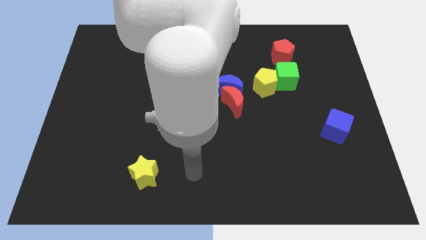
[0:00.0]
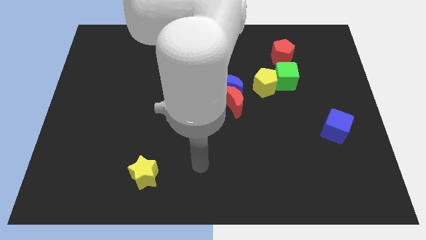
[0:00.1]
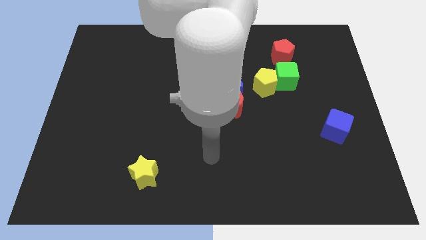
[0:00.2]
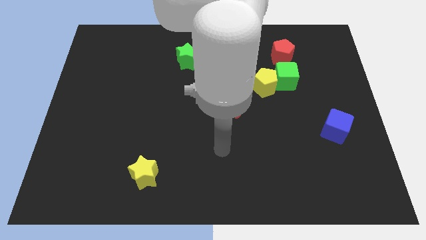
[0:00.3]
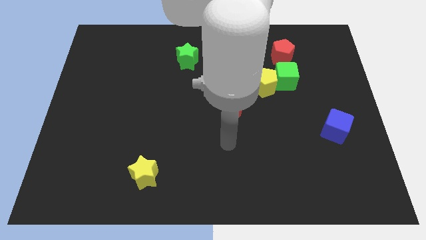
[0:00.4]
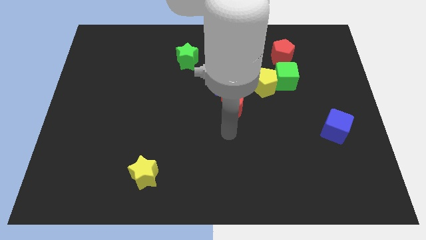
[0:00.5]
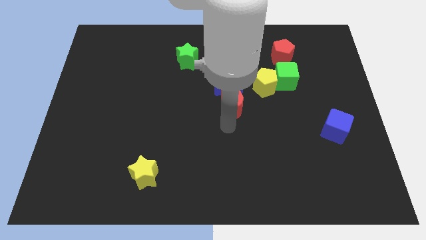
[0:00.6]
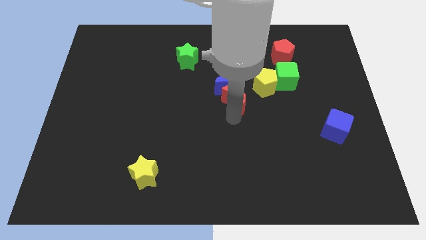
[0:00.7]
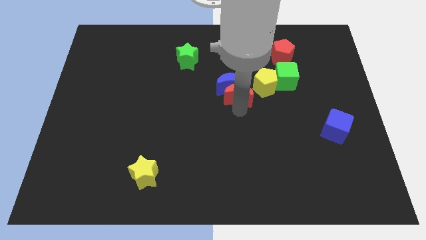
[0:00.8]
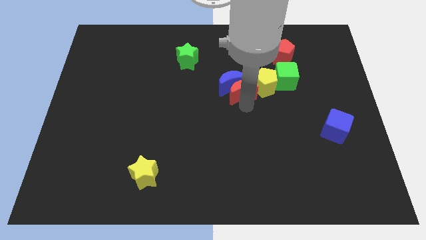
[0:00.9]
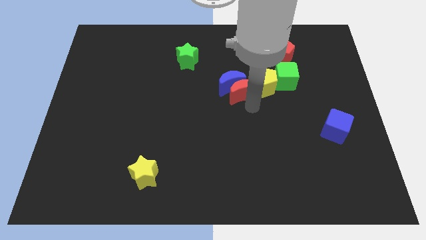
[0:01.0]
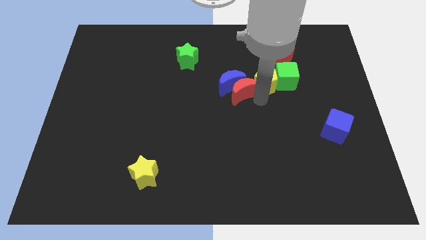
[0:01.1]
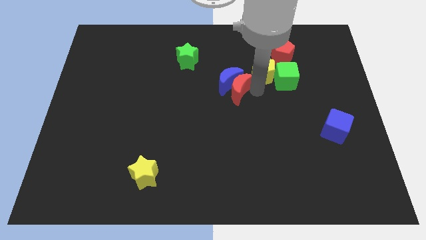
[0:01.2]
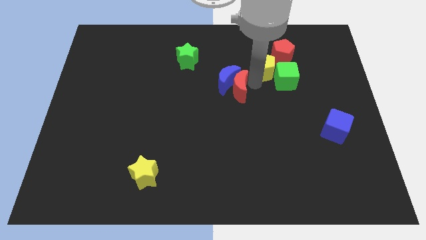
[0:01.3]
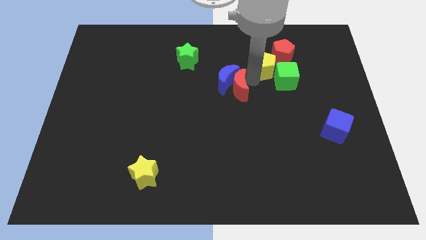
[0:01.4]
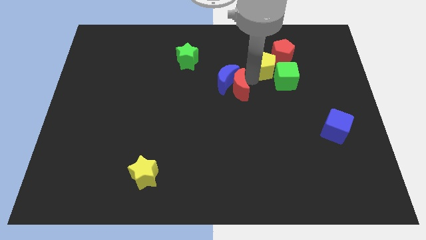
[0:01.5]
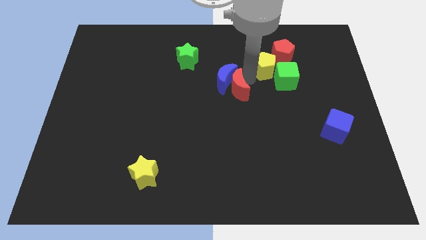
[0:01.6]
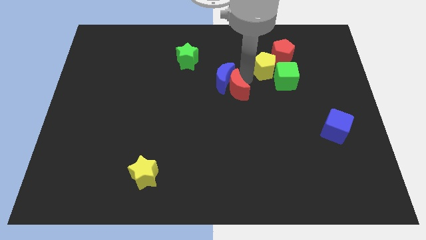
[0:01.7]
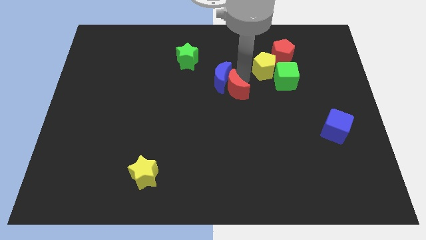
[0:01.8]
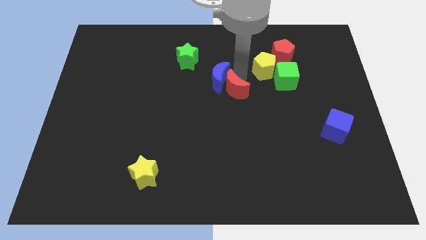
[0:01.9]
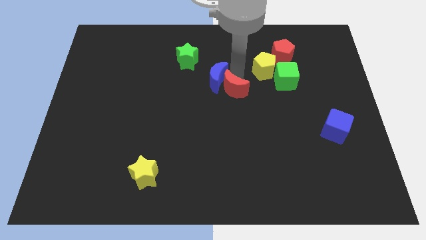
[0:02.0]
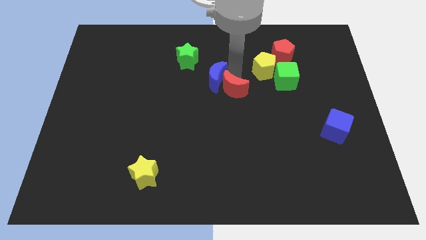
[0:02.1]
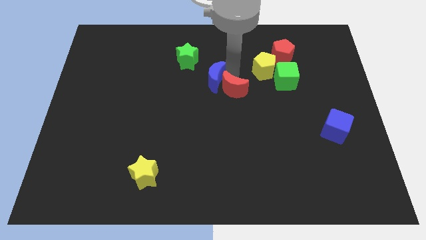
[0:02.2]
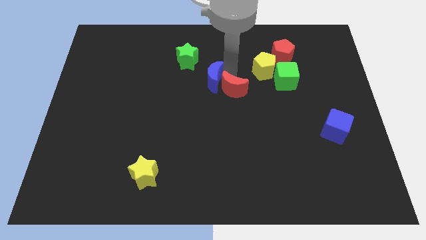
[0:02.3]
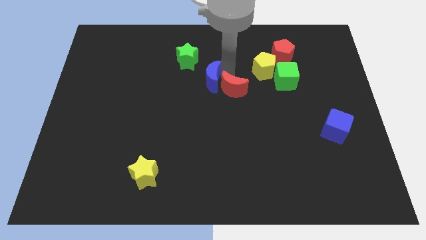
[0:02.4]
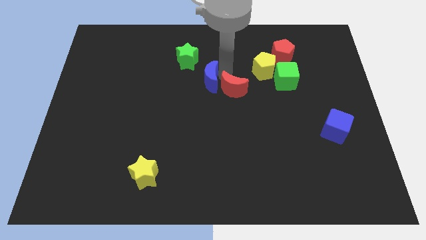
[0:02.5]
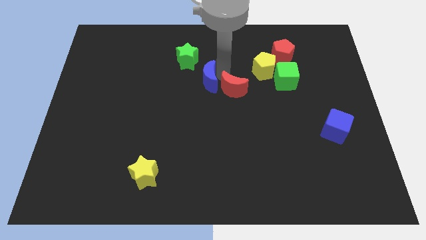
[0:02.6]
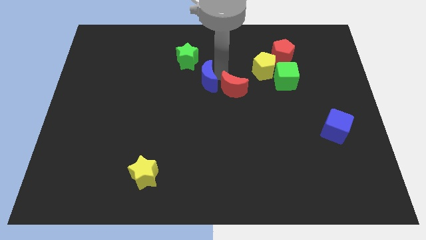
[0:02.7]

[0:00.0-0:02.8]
pull the blue moon apart from the red moon and yellow pentagon

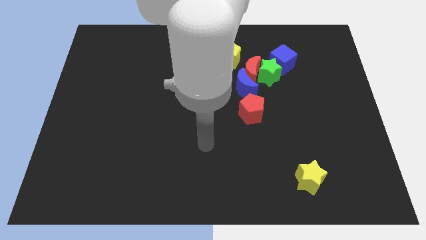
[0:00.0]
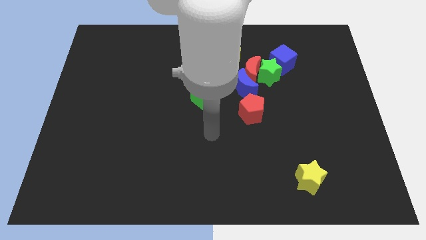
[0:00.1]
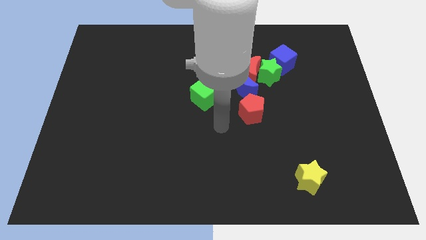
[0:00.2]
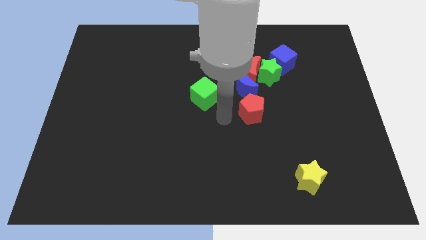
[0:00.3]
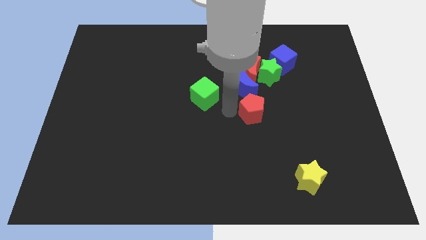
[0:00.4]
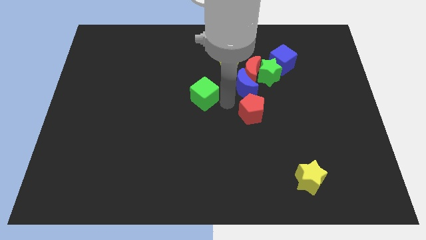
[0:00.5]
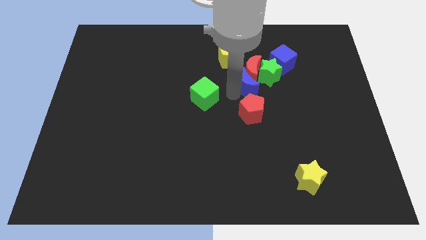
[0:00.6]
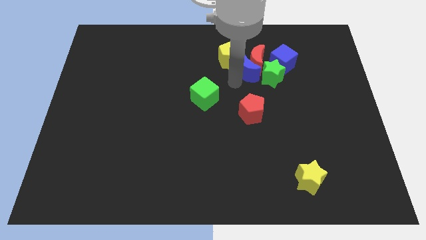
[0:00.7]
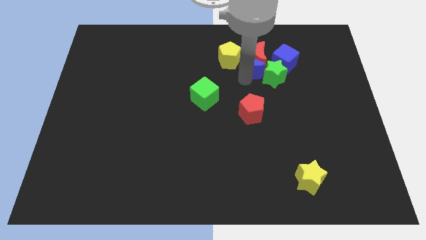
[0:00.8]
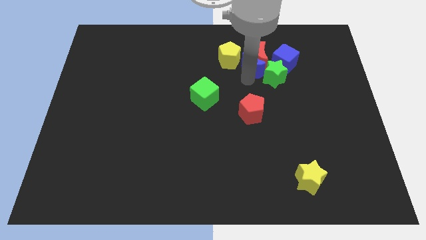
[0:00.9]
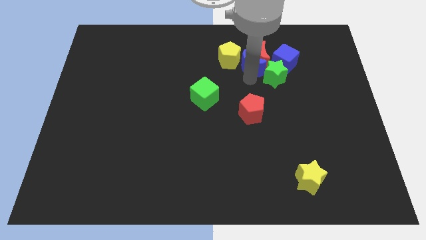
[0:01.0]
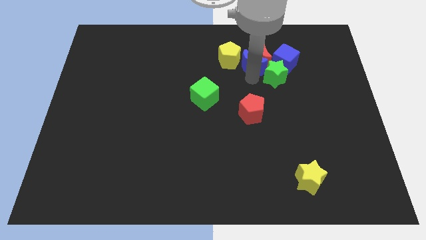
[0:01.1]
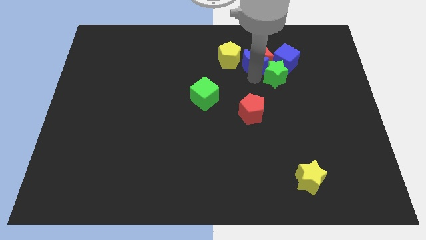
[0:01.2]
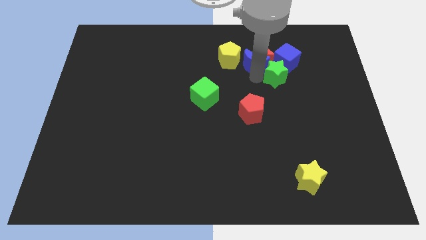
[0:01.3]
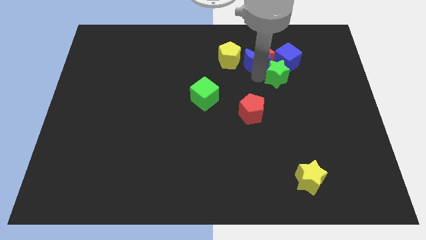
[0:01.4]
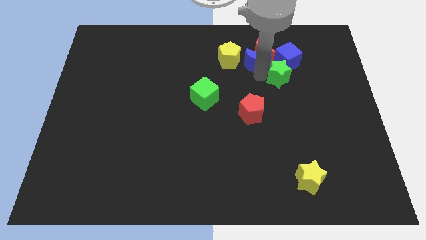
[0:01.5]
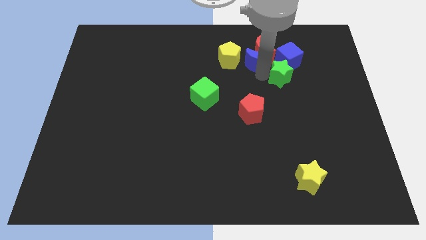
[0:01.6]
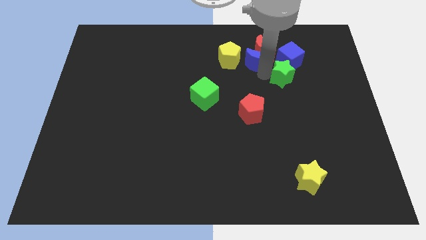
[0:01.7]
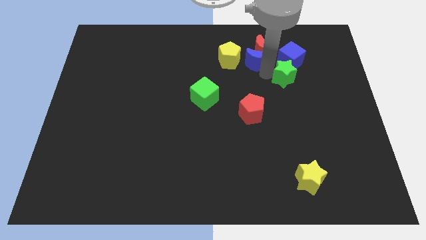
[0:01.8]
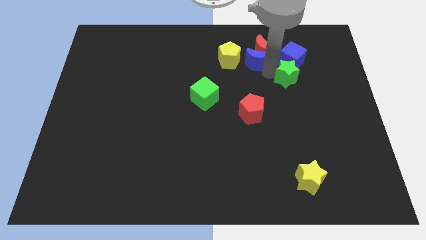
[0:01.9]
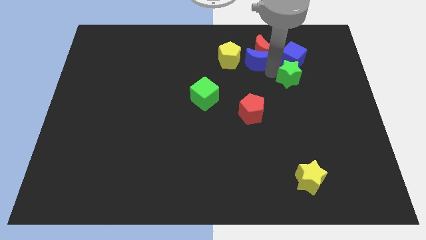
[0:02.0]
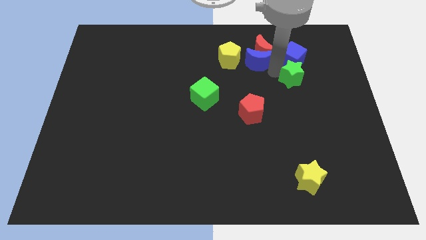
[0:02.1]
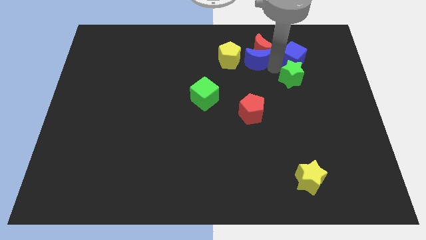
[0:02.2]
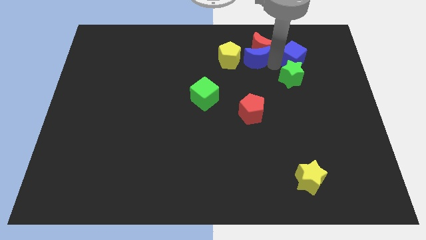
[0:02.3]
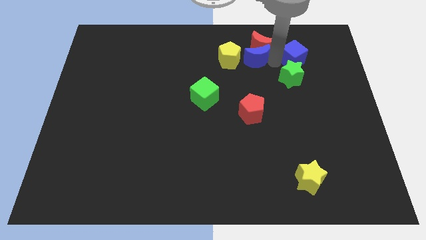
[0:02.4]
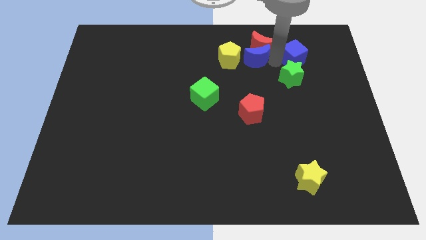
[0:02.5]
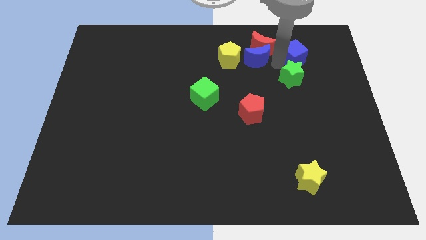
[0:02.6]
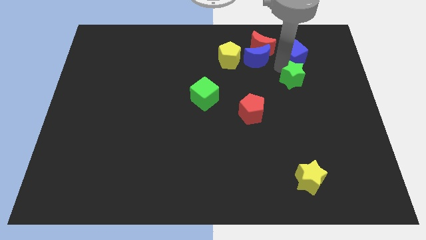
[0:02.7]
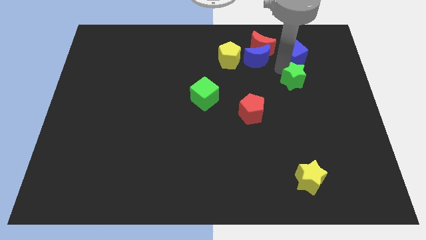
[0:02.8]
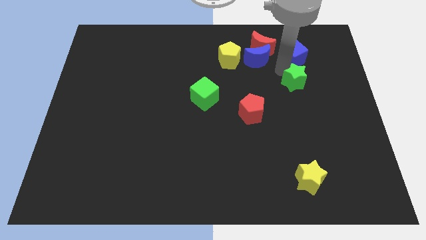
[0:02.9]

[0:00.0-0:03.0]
move the green star away from the red moon, blue cube, and blue moon

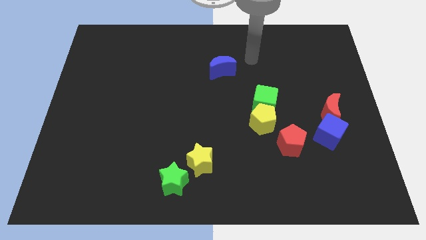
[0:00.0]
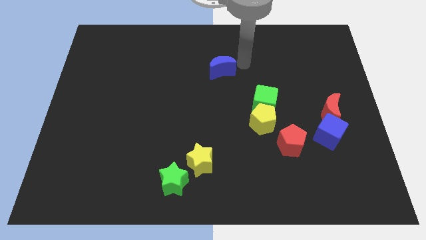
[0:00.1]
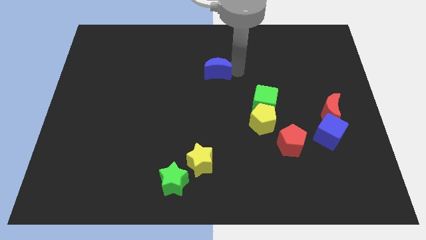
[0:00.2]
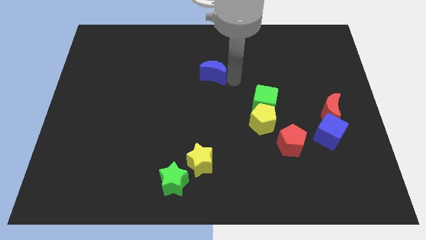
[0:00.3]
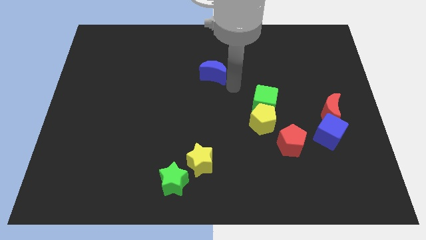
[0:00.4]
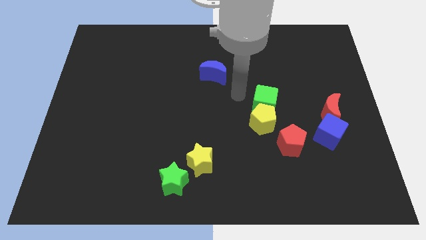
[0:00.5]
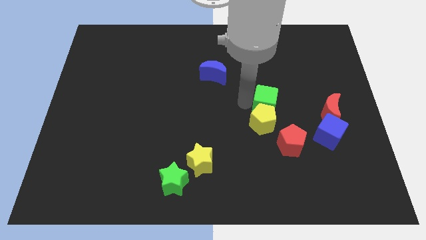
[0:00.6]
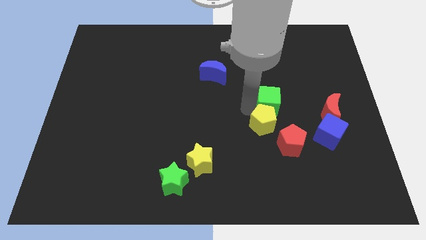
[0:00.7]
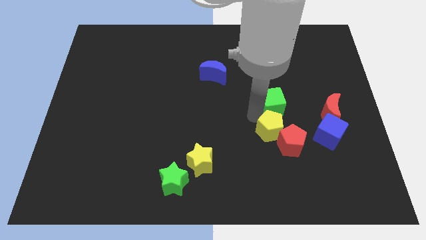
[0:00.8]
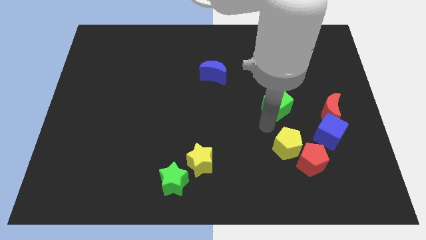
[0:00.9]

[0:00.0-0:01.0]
separate the green cube from the yellow pentagon

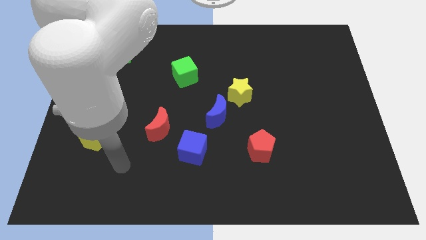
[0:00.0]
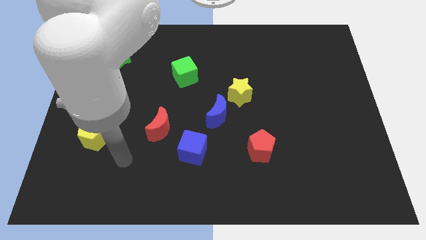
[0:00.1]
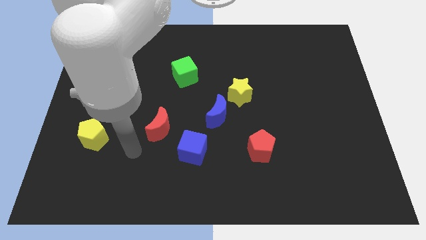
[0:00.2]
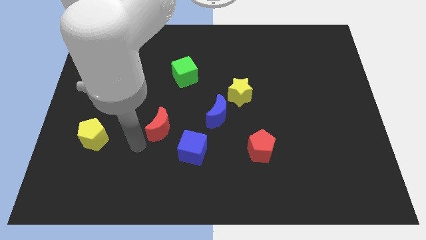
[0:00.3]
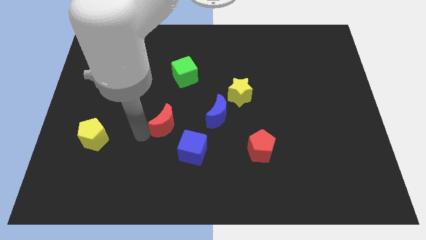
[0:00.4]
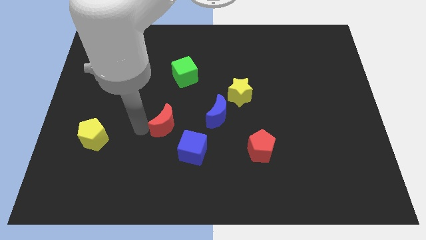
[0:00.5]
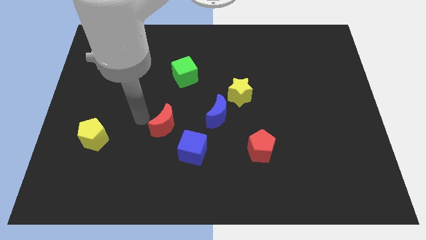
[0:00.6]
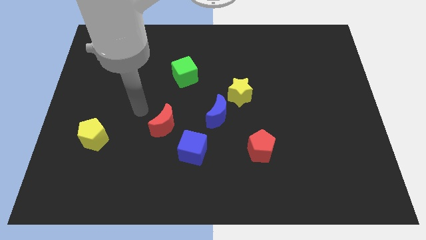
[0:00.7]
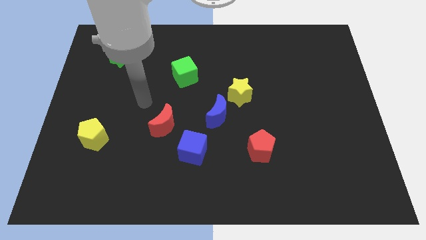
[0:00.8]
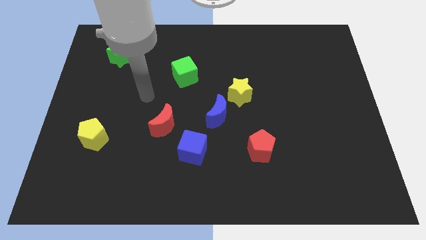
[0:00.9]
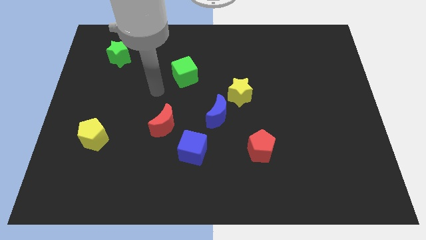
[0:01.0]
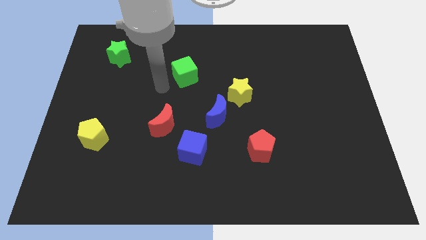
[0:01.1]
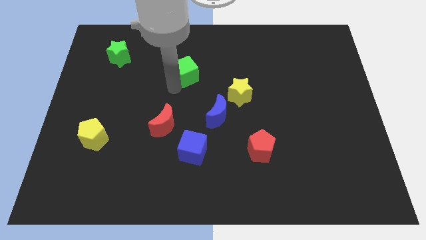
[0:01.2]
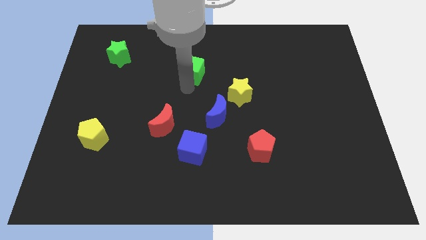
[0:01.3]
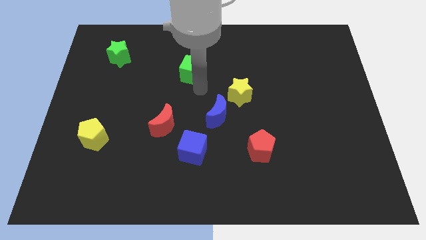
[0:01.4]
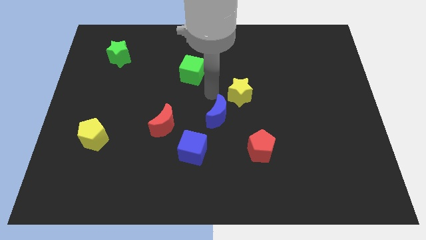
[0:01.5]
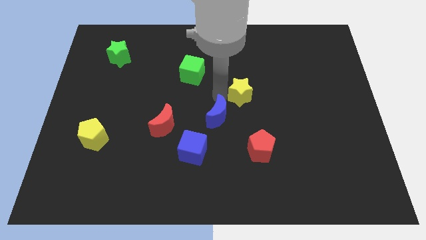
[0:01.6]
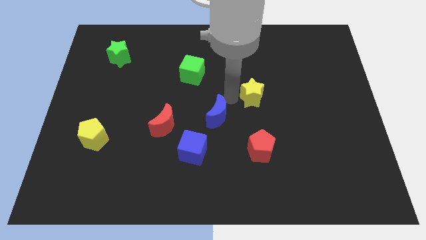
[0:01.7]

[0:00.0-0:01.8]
separate the blue moon from the yellow star

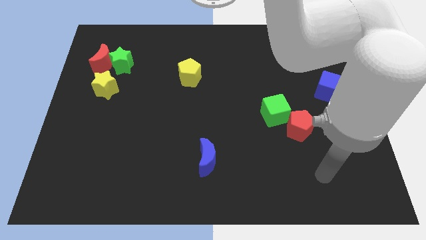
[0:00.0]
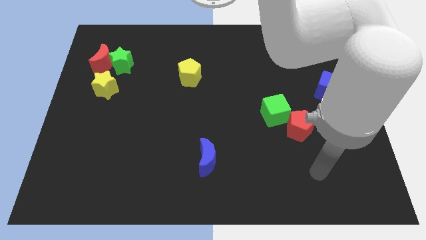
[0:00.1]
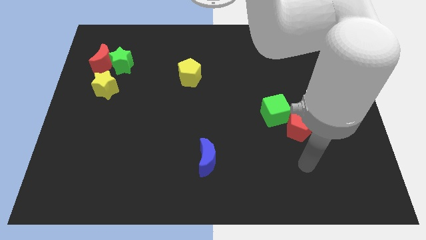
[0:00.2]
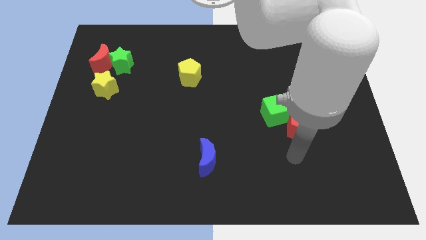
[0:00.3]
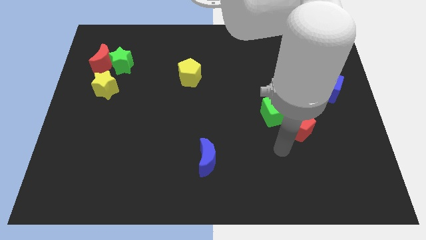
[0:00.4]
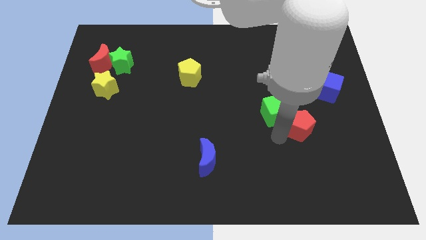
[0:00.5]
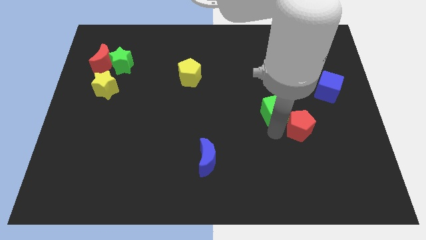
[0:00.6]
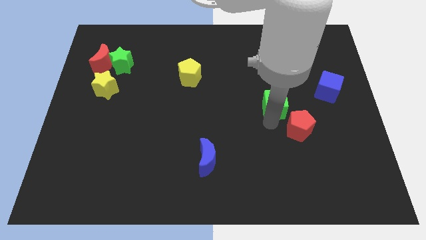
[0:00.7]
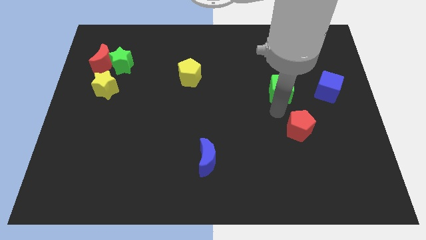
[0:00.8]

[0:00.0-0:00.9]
separate the red pentagon from the green cube
